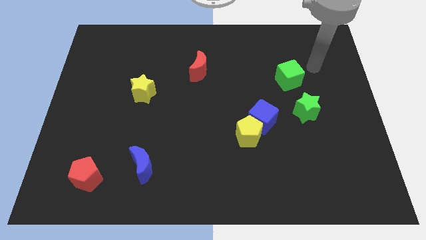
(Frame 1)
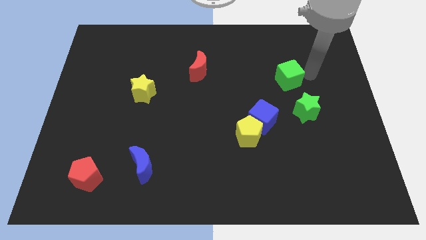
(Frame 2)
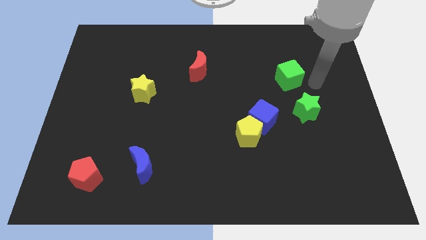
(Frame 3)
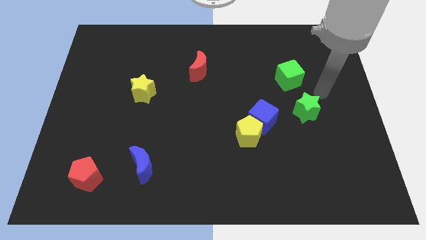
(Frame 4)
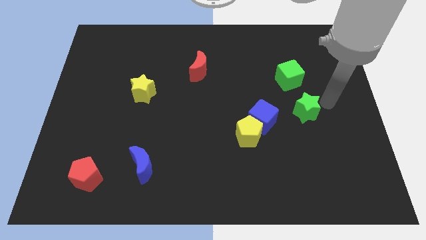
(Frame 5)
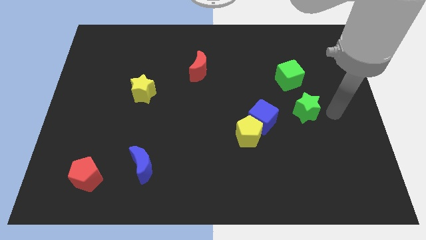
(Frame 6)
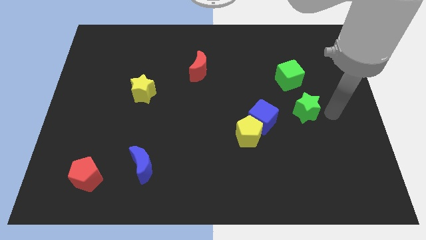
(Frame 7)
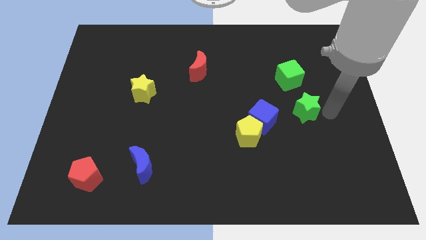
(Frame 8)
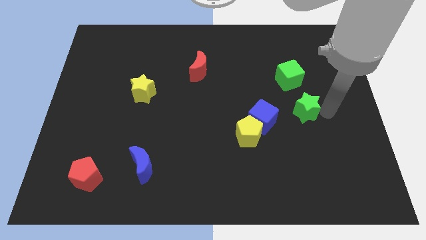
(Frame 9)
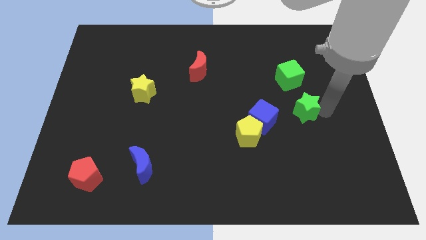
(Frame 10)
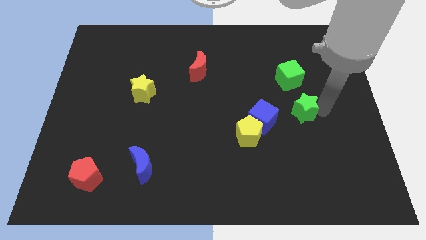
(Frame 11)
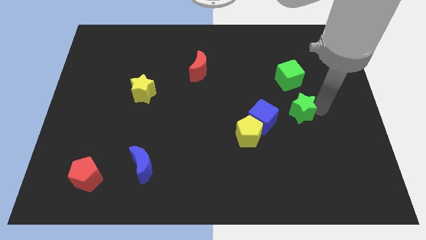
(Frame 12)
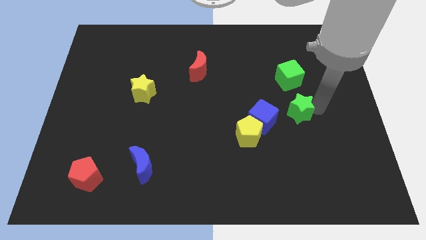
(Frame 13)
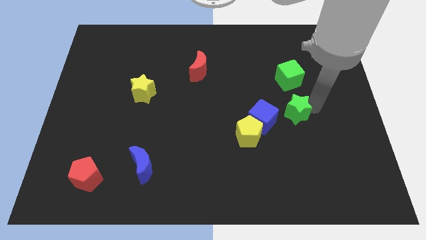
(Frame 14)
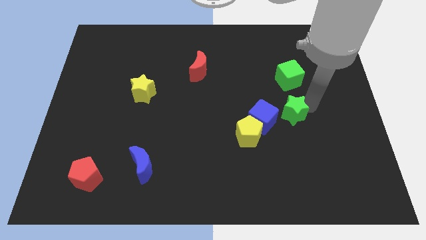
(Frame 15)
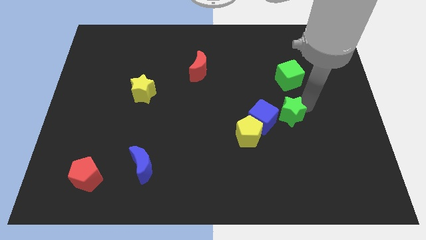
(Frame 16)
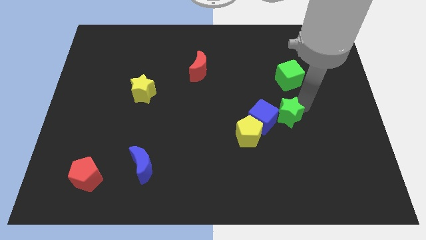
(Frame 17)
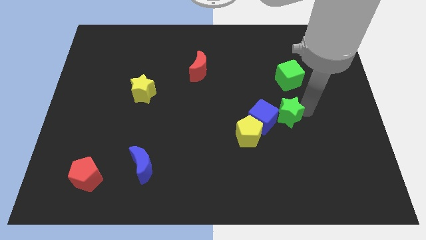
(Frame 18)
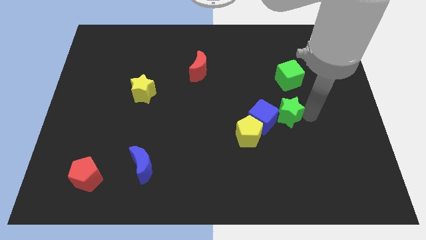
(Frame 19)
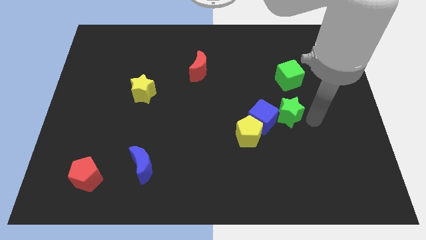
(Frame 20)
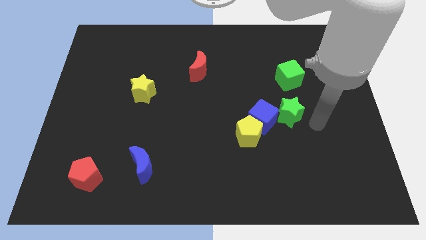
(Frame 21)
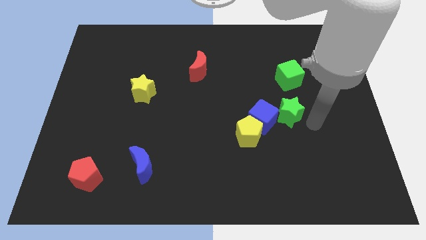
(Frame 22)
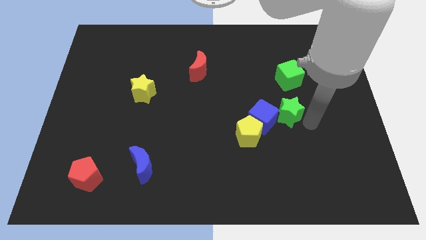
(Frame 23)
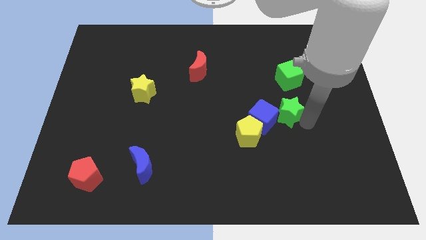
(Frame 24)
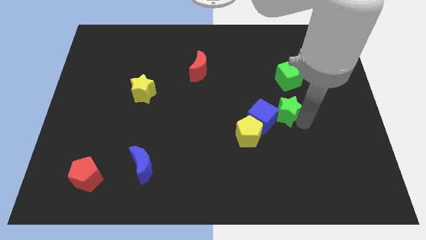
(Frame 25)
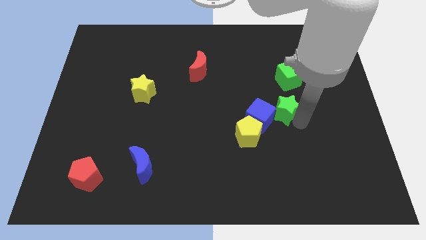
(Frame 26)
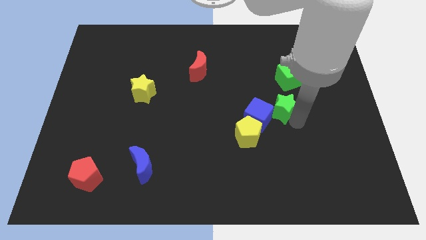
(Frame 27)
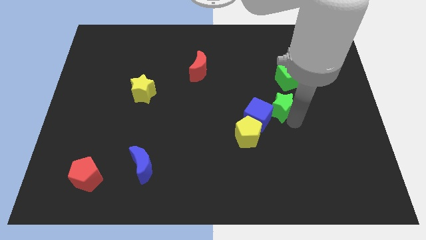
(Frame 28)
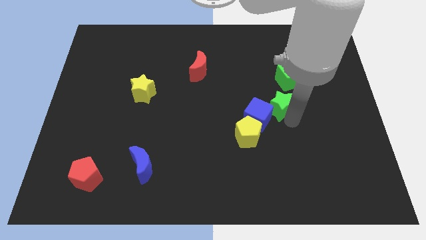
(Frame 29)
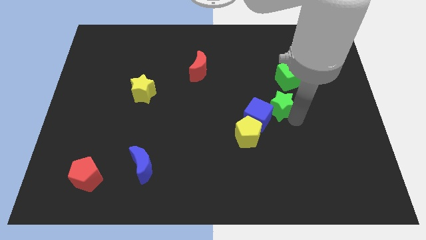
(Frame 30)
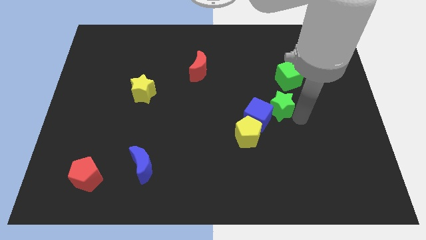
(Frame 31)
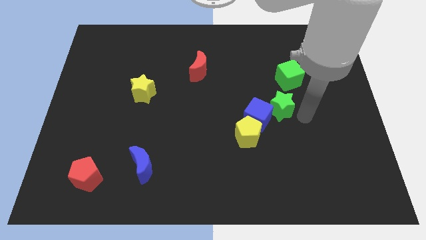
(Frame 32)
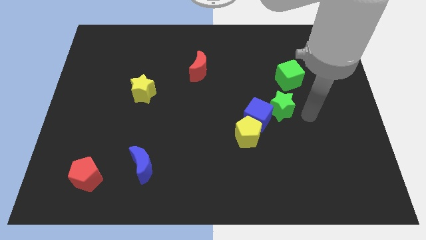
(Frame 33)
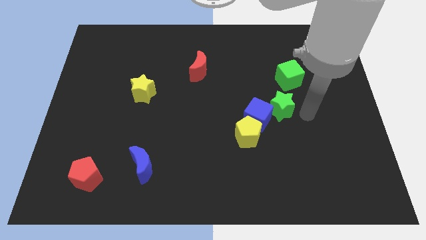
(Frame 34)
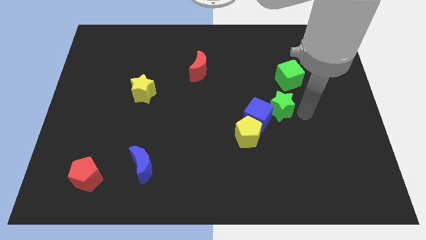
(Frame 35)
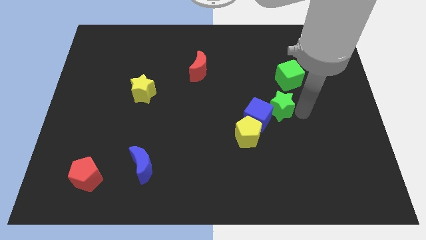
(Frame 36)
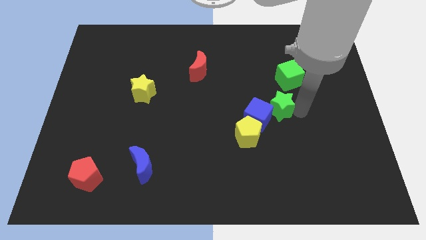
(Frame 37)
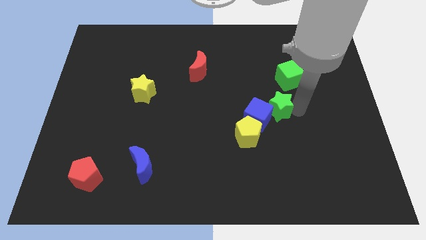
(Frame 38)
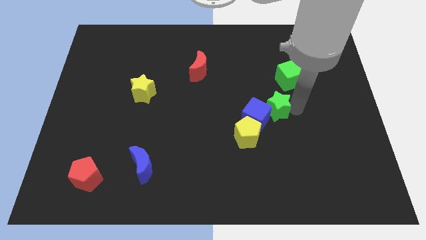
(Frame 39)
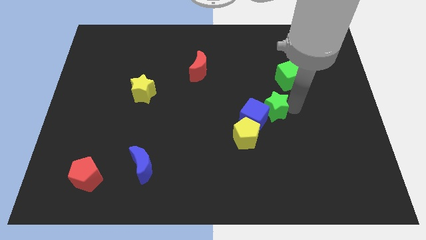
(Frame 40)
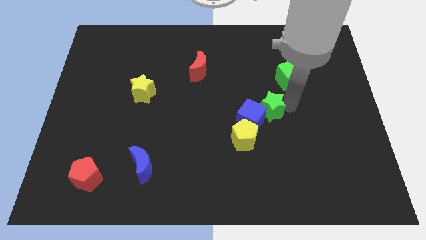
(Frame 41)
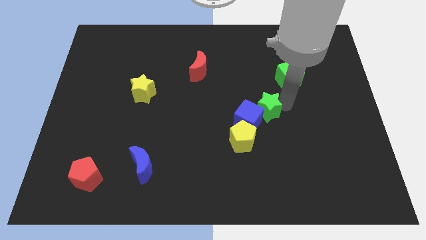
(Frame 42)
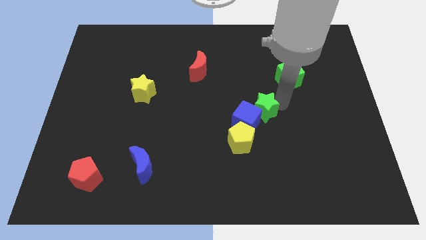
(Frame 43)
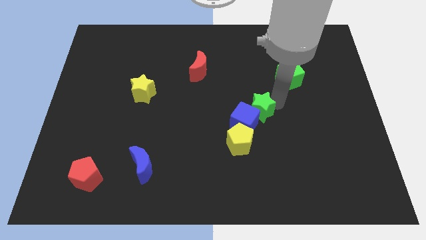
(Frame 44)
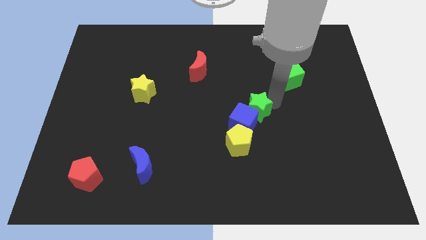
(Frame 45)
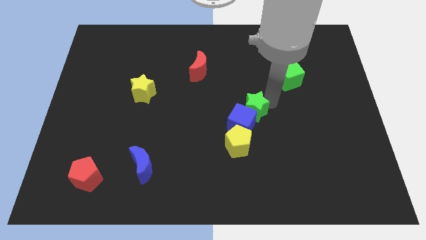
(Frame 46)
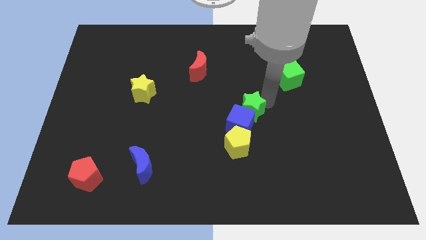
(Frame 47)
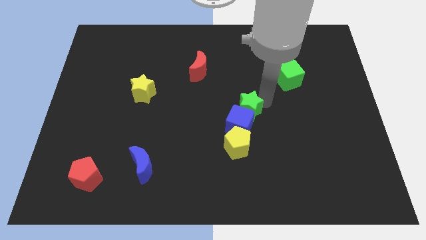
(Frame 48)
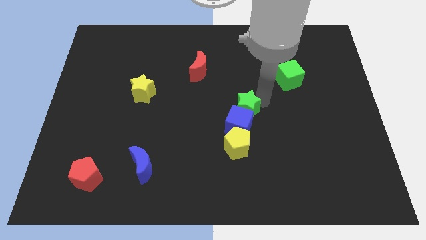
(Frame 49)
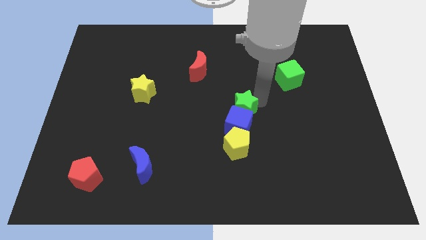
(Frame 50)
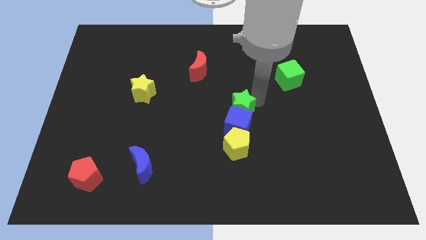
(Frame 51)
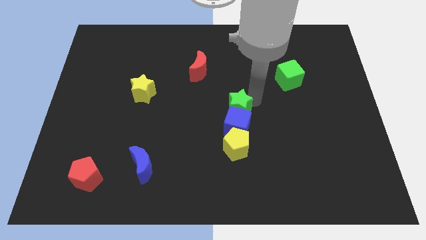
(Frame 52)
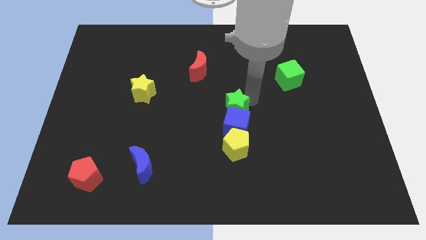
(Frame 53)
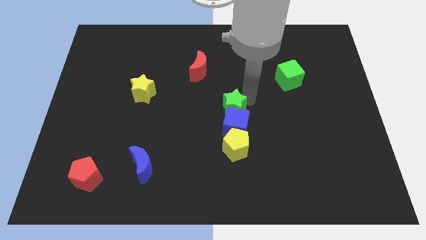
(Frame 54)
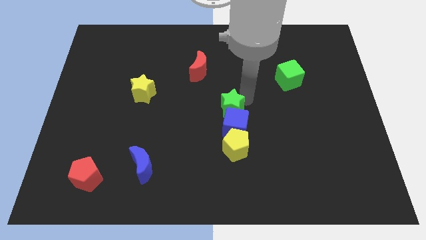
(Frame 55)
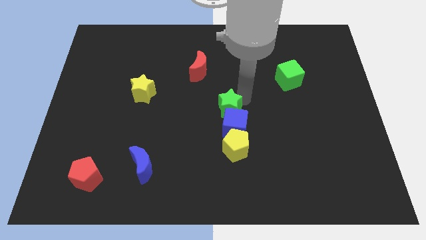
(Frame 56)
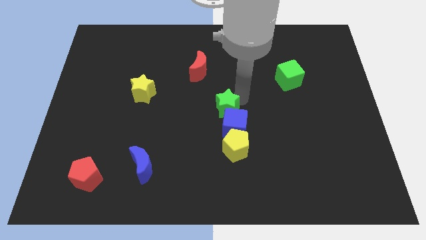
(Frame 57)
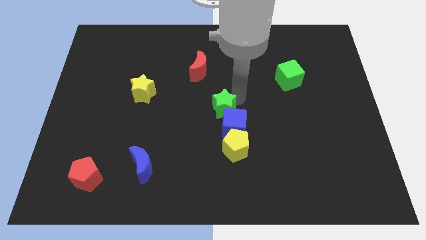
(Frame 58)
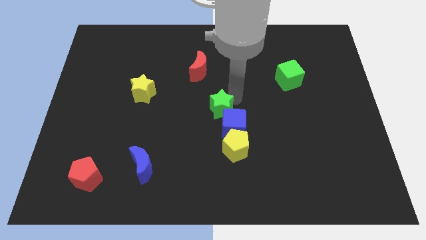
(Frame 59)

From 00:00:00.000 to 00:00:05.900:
slide the green star left

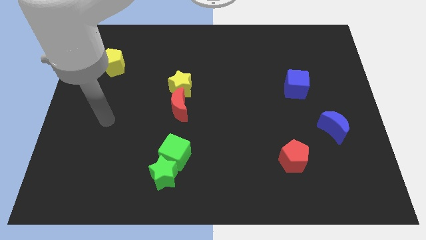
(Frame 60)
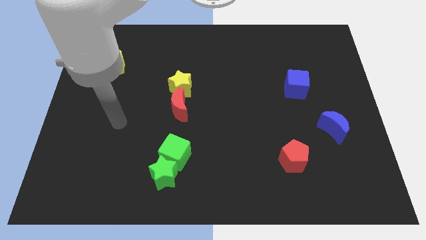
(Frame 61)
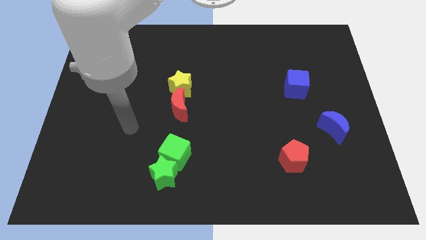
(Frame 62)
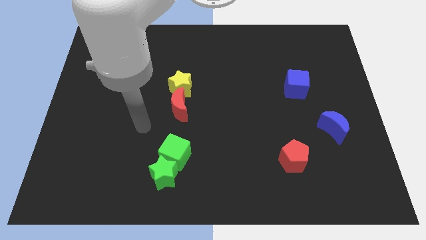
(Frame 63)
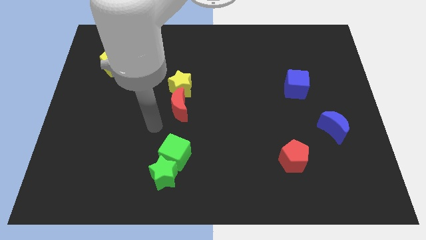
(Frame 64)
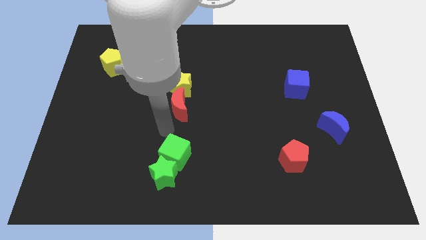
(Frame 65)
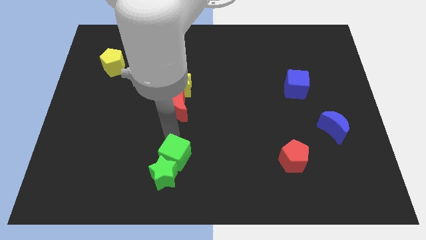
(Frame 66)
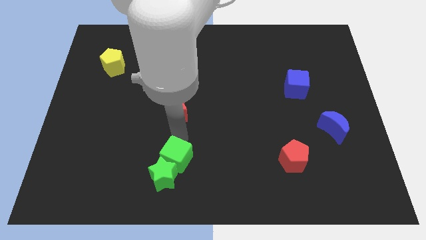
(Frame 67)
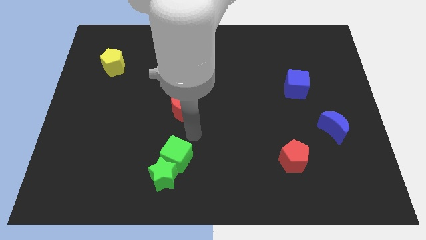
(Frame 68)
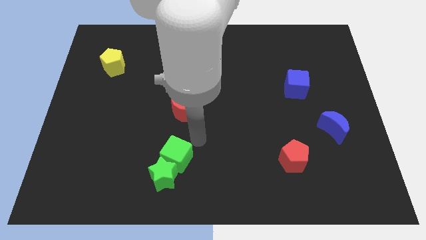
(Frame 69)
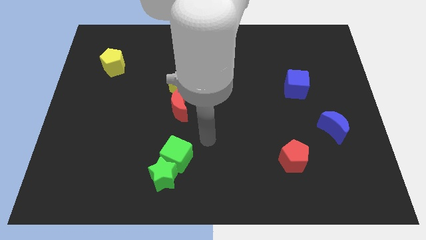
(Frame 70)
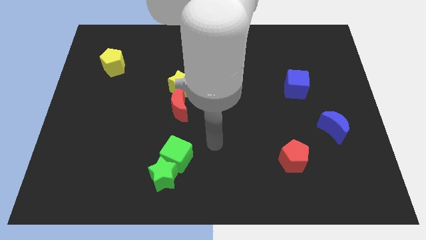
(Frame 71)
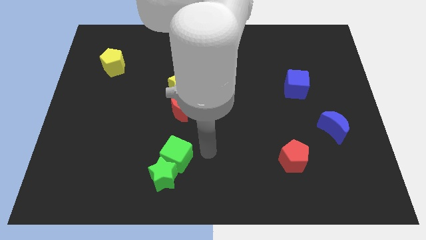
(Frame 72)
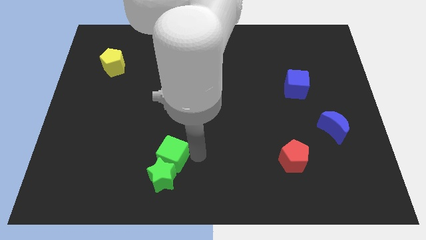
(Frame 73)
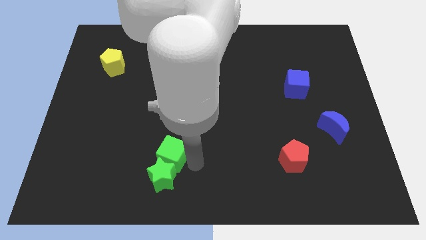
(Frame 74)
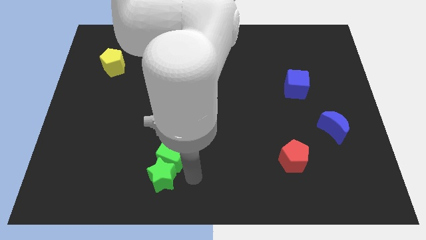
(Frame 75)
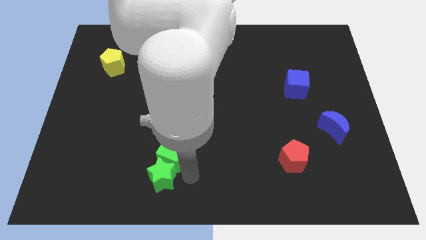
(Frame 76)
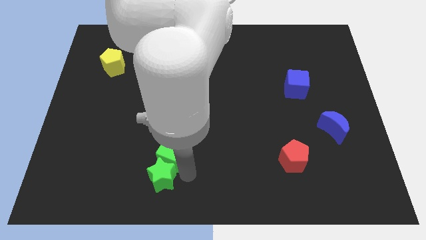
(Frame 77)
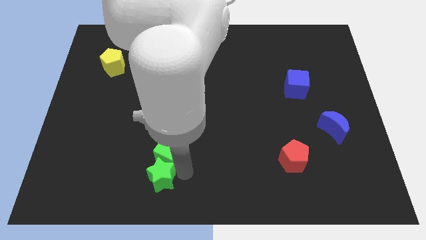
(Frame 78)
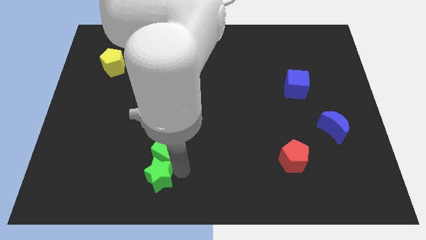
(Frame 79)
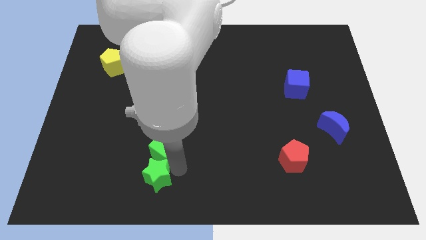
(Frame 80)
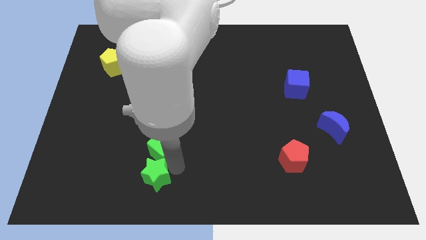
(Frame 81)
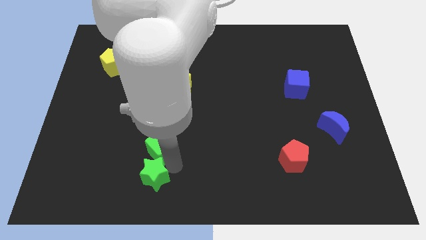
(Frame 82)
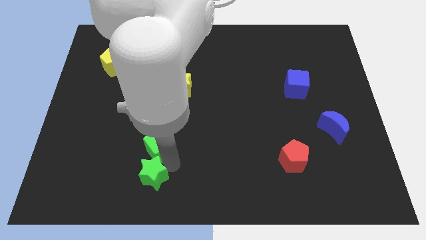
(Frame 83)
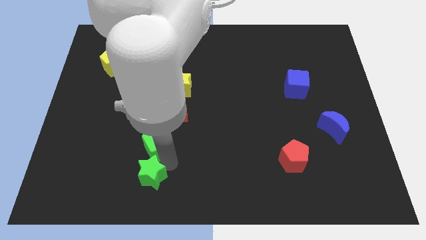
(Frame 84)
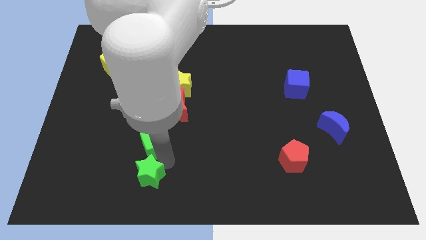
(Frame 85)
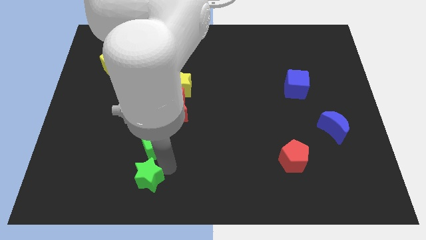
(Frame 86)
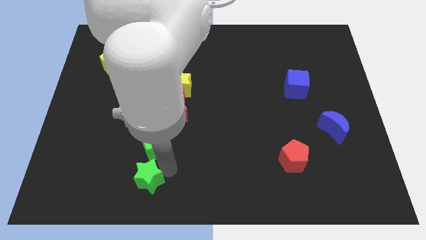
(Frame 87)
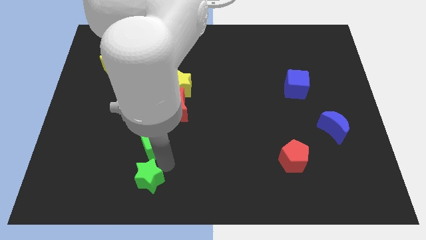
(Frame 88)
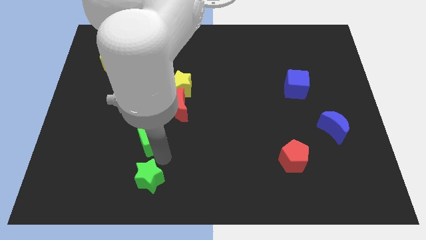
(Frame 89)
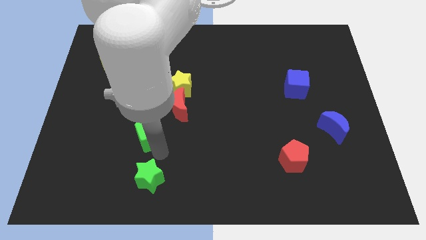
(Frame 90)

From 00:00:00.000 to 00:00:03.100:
slightly move the green cube diagonally upwards and to the left
